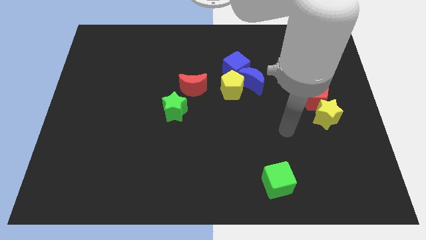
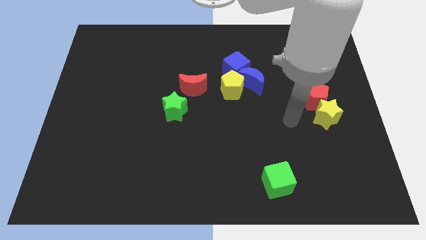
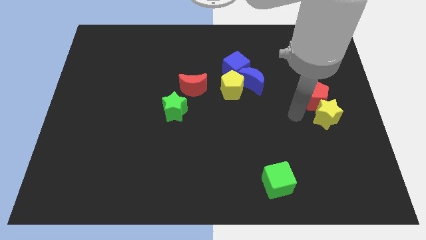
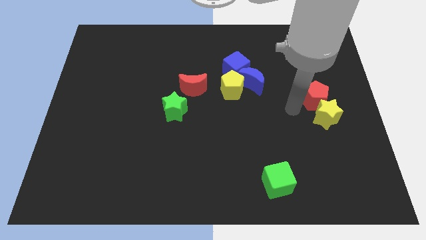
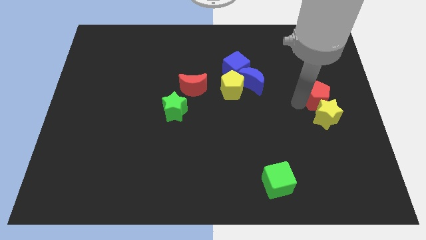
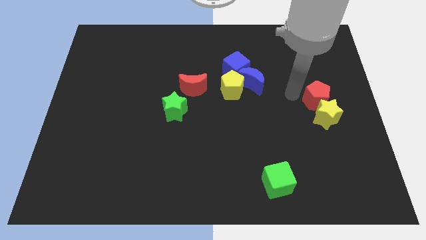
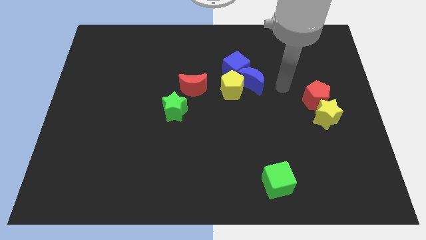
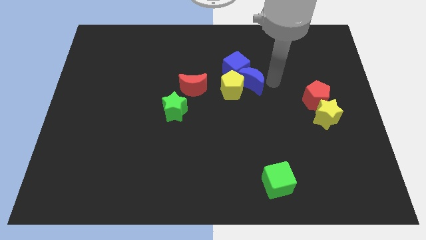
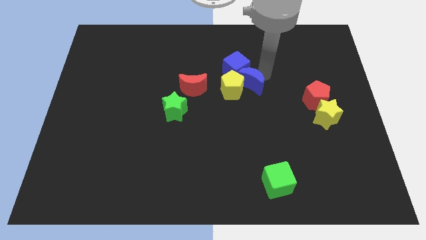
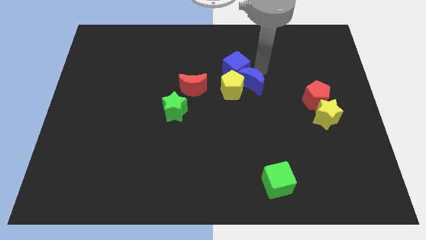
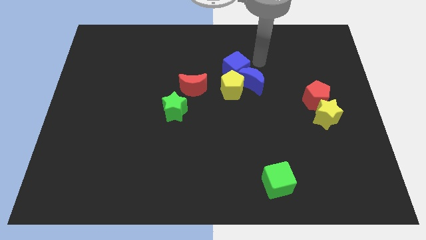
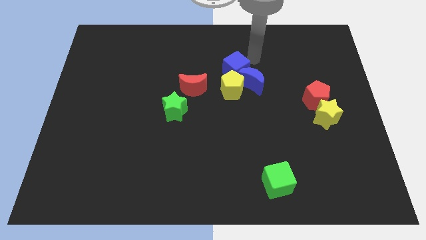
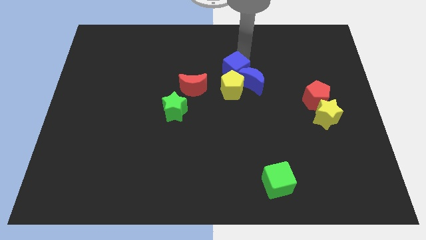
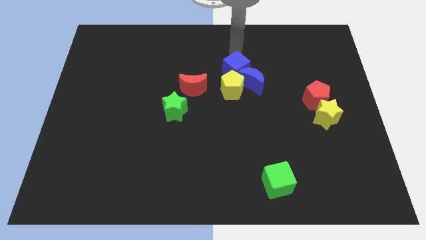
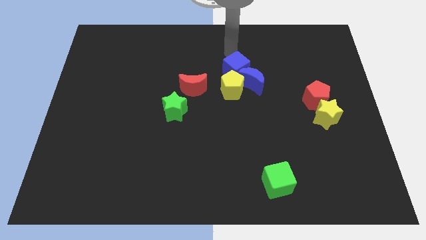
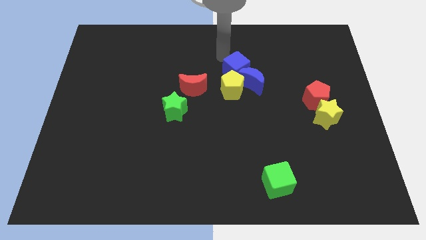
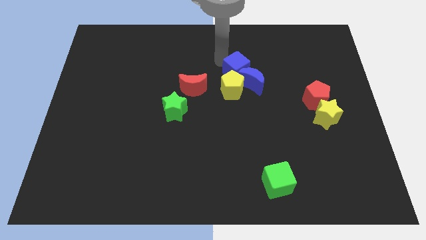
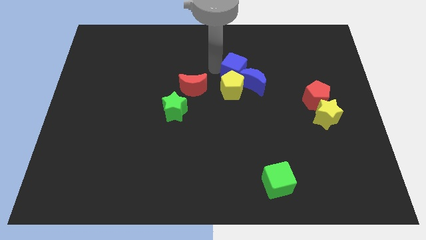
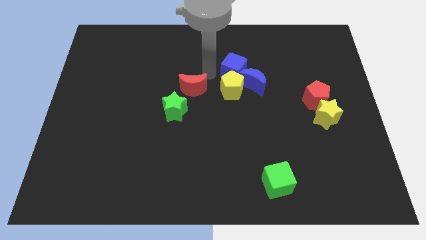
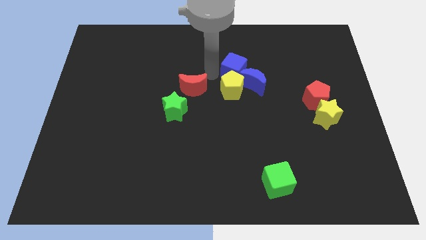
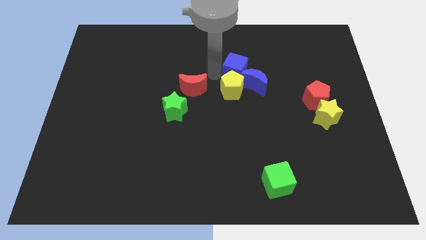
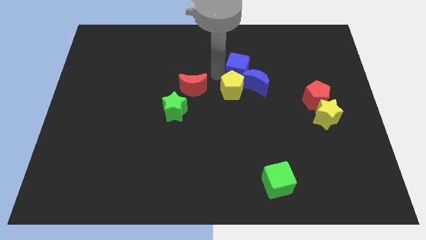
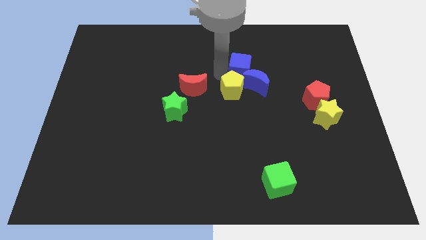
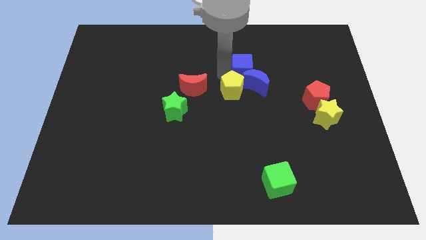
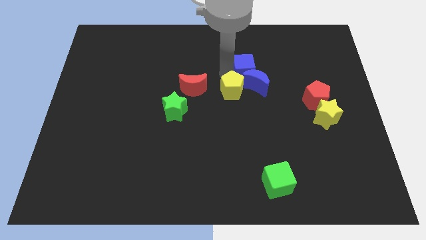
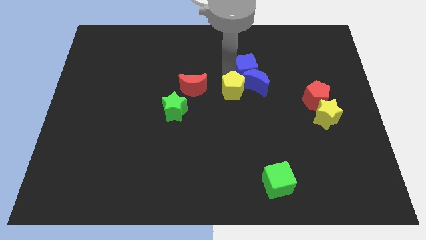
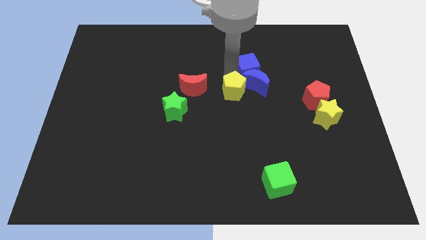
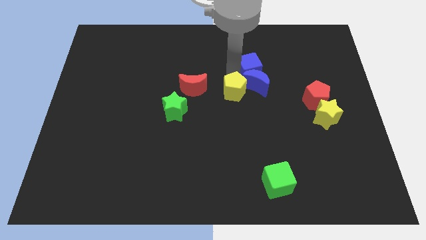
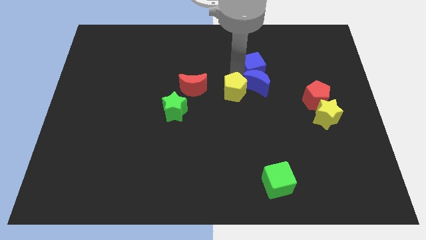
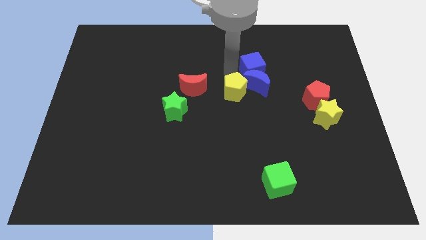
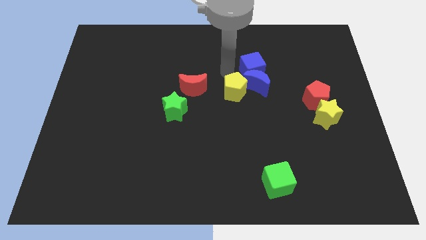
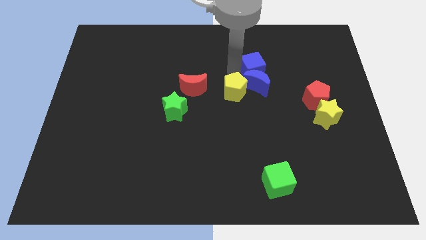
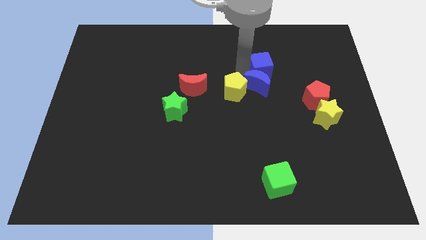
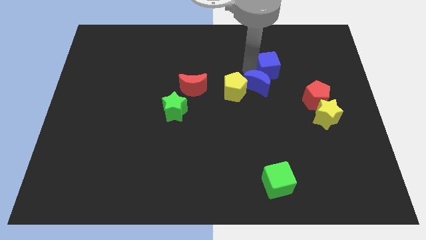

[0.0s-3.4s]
push the blue cube a little to the right

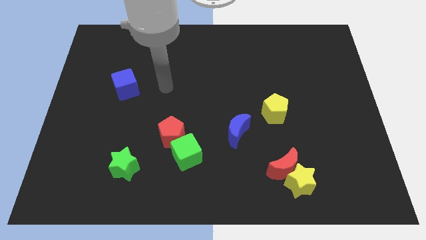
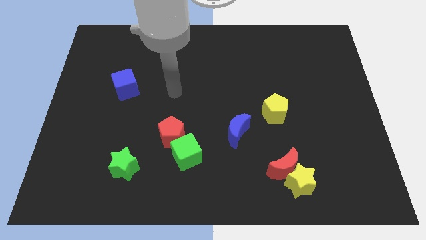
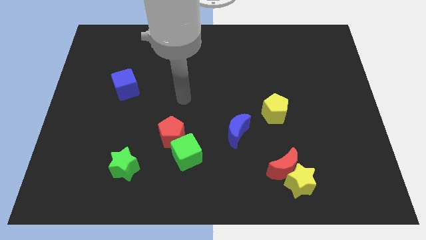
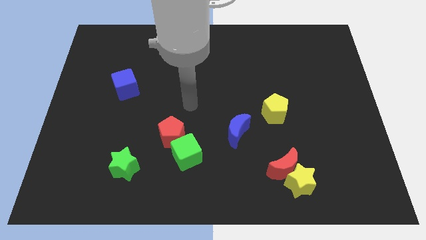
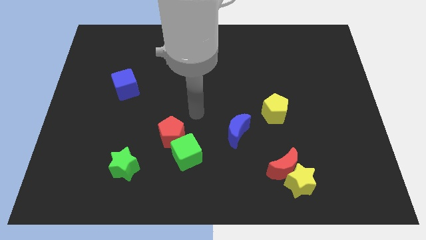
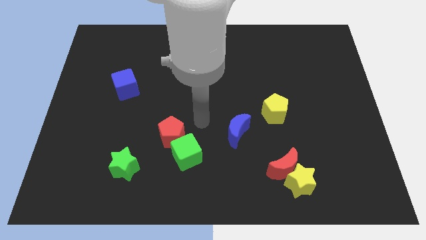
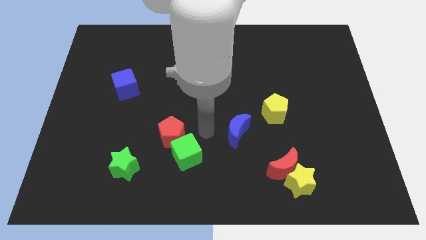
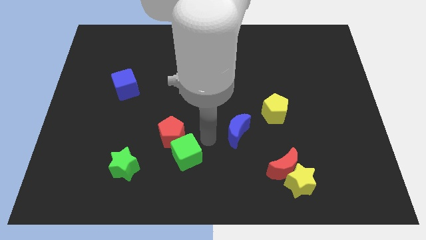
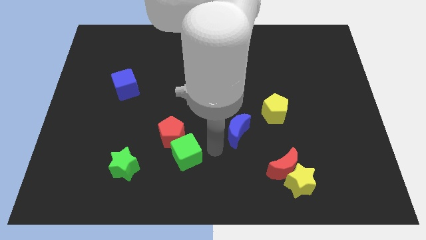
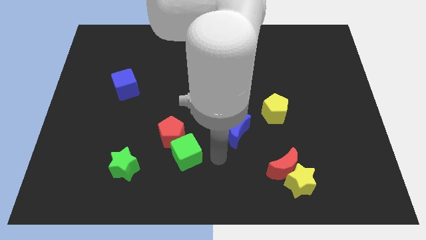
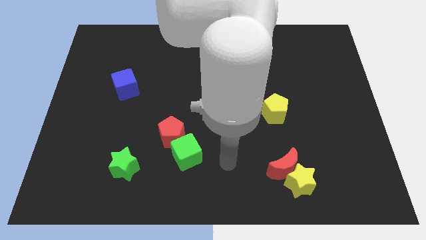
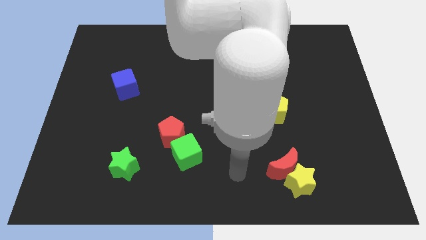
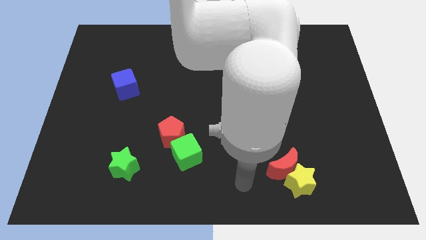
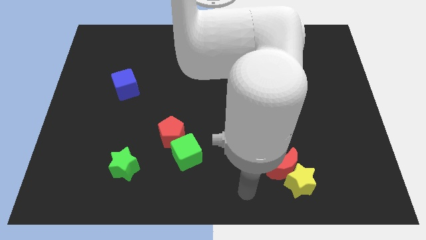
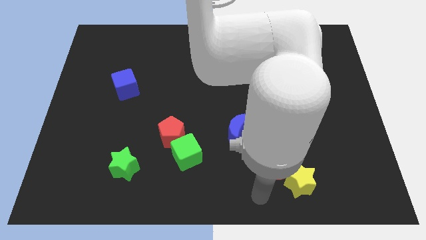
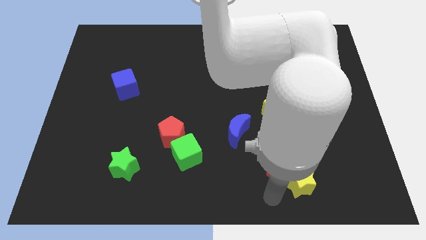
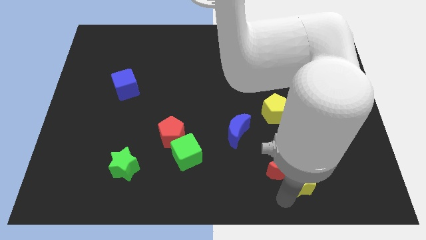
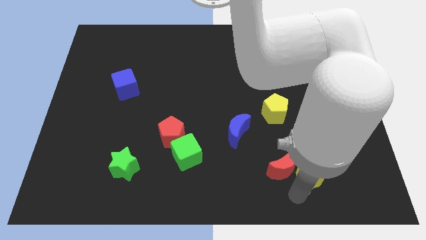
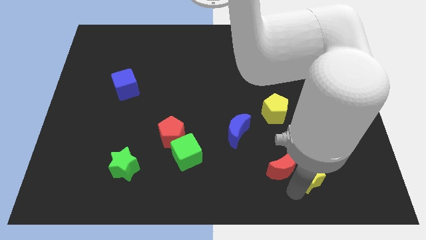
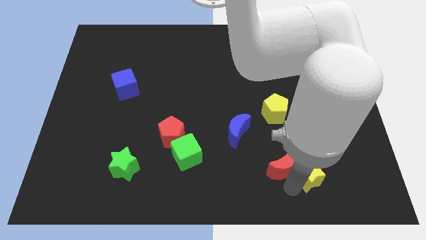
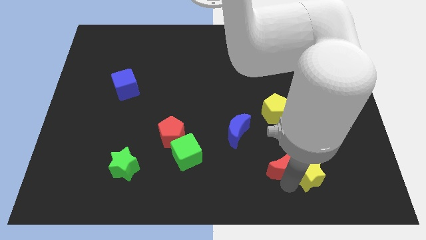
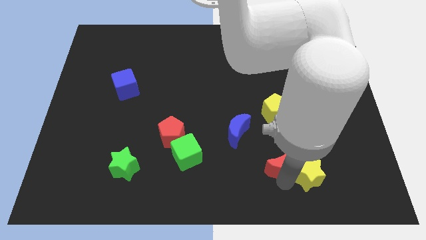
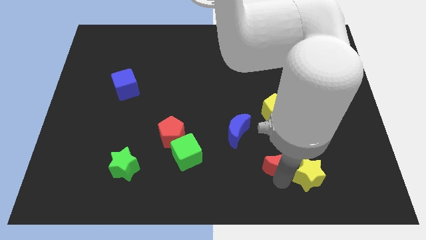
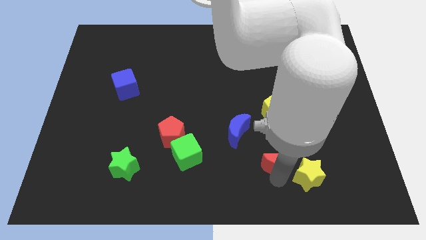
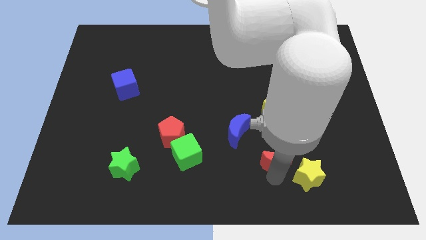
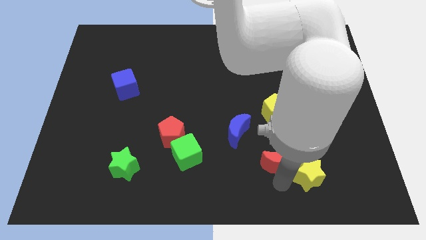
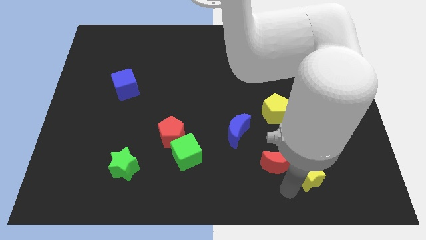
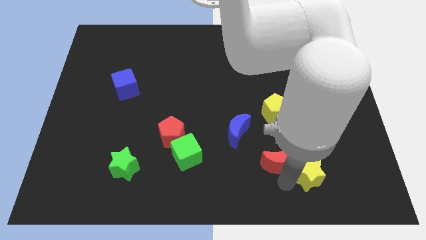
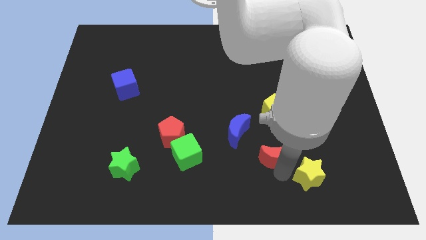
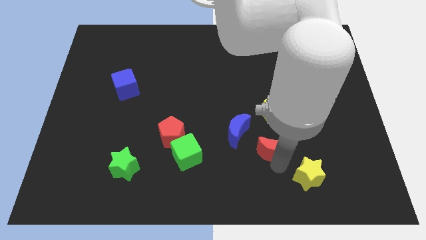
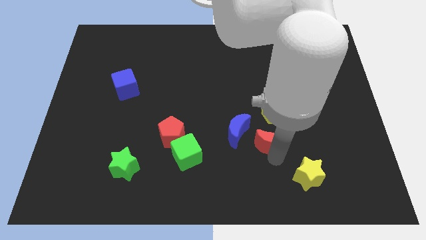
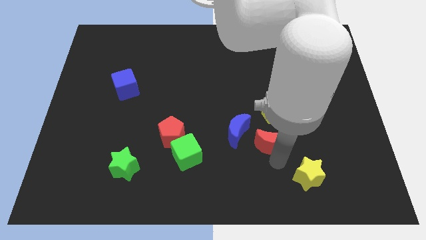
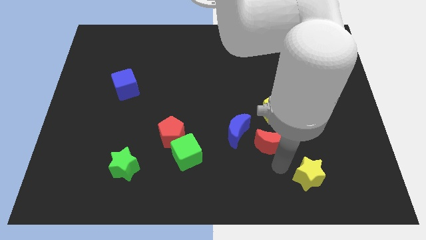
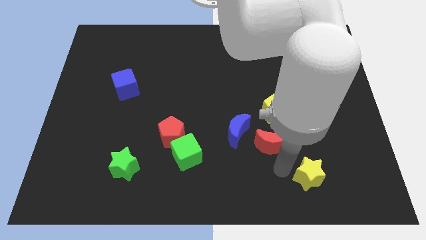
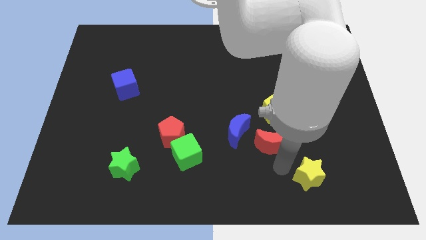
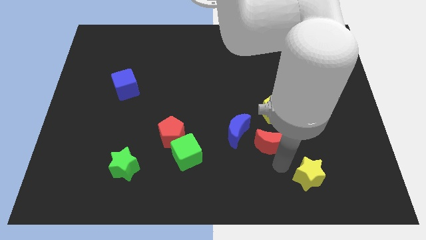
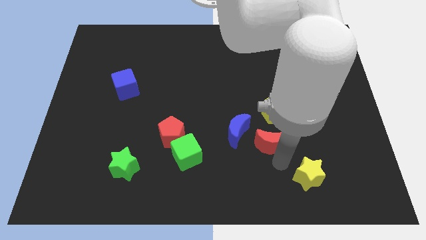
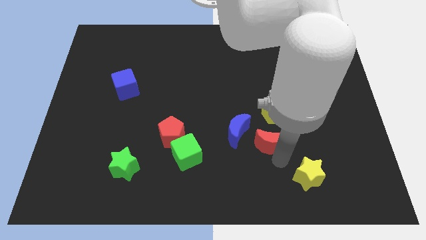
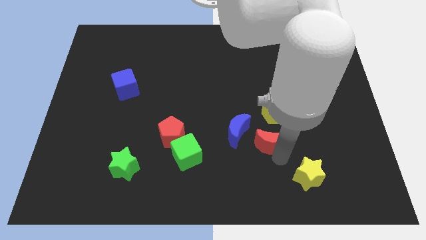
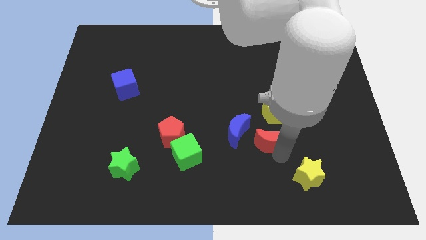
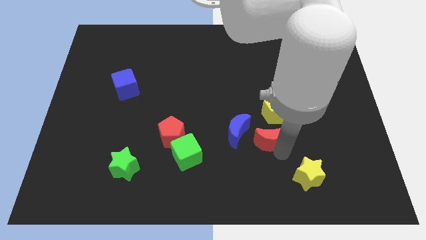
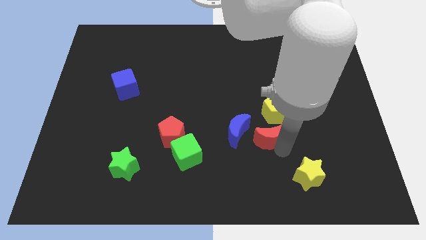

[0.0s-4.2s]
slightly move the red moon upwards

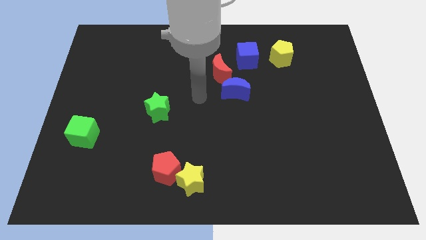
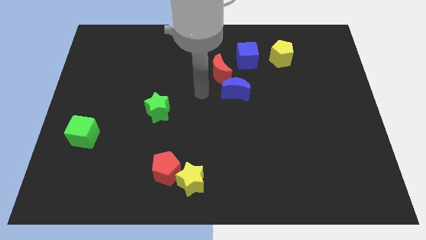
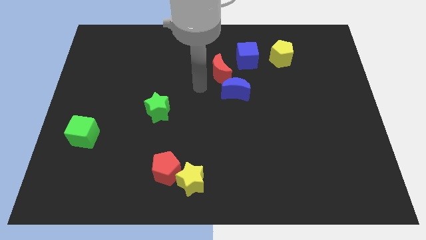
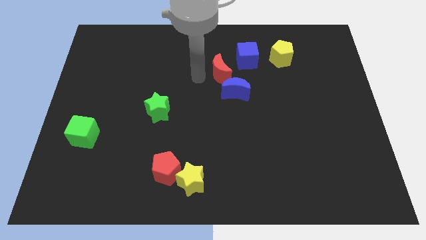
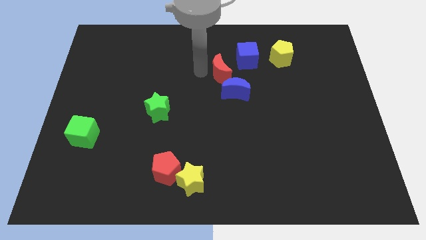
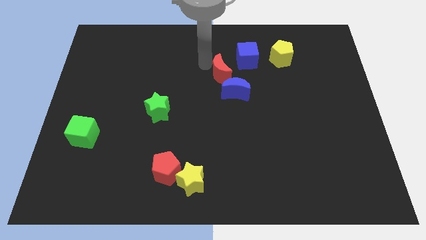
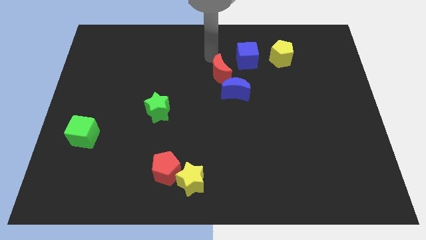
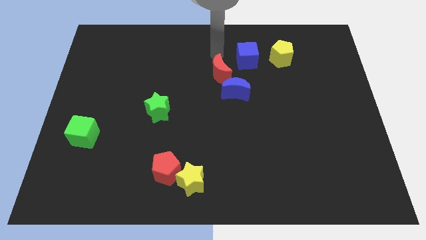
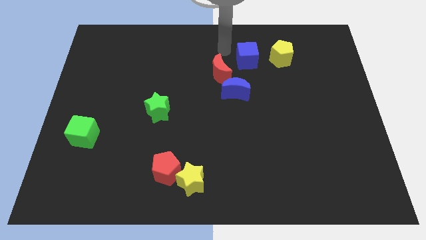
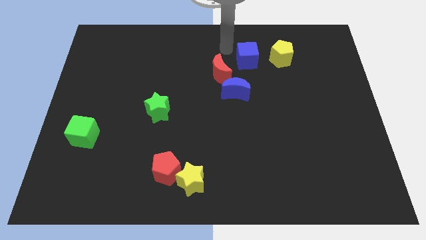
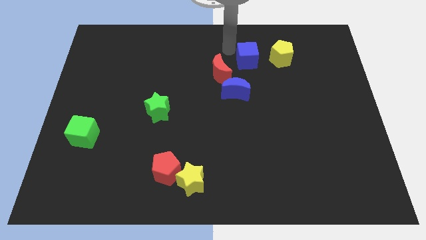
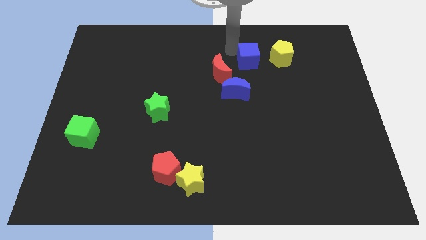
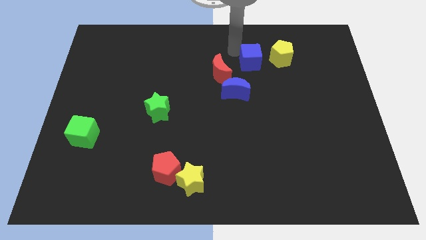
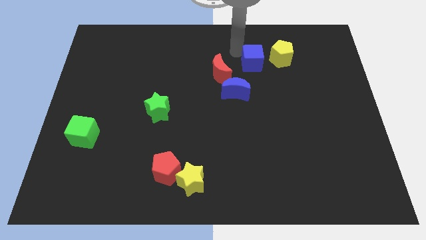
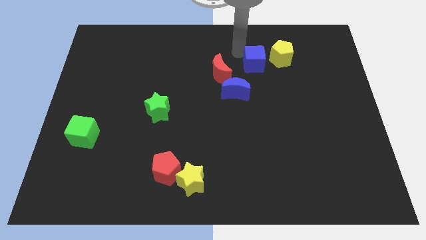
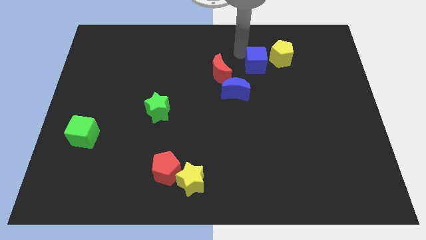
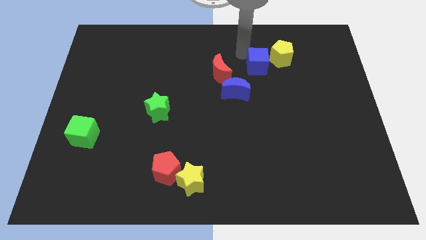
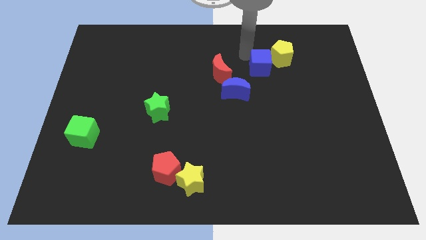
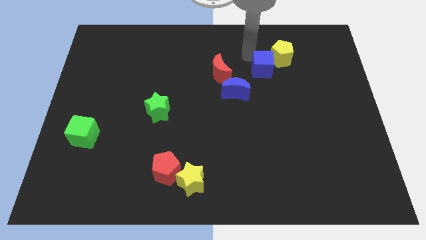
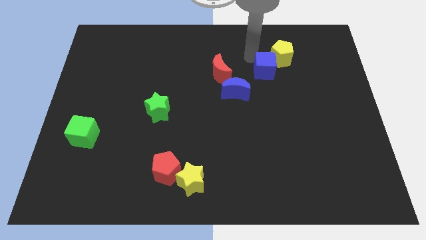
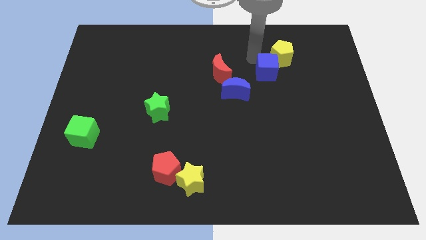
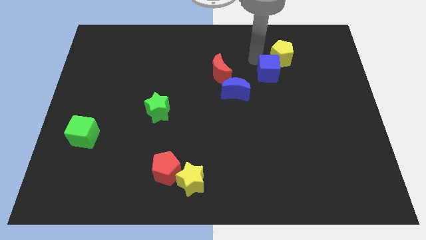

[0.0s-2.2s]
slightly slide the blue cube diagonally down and right
